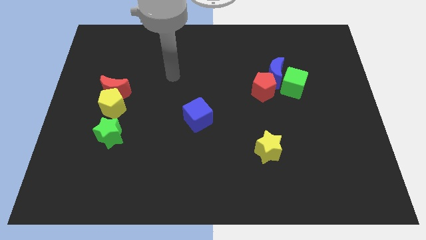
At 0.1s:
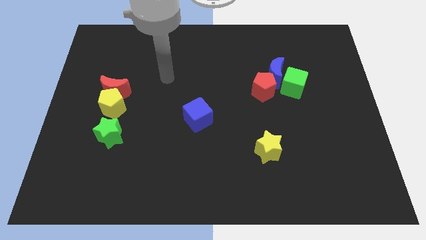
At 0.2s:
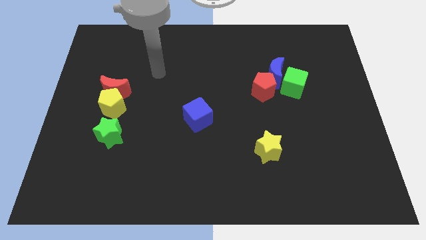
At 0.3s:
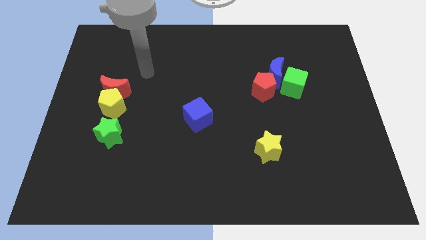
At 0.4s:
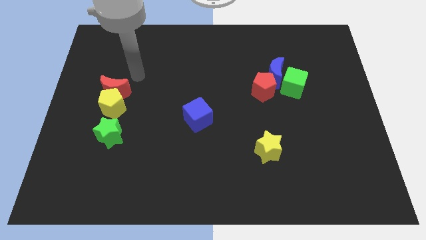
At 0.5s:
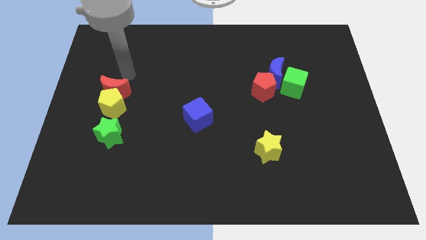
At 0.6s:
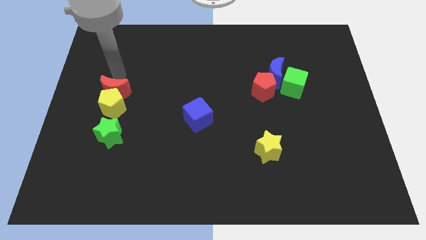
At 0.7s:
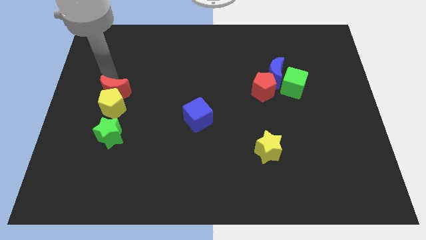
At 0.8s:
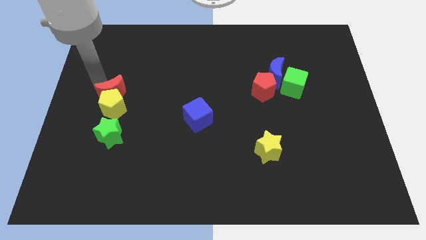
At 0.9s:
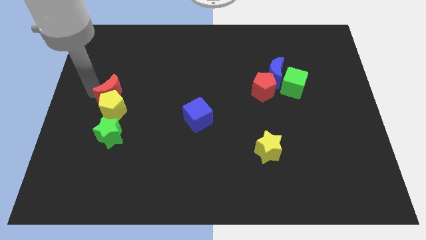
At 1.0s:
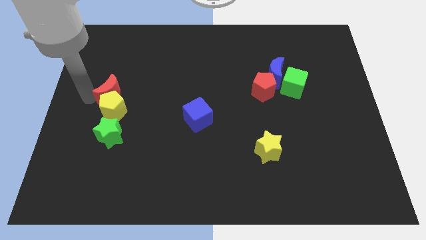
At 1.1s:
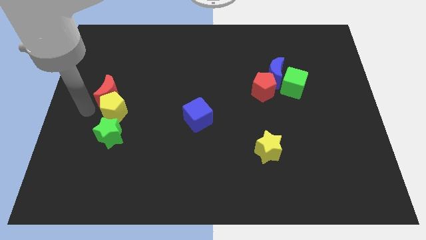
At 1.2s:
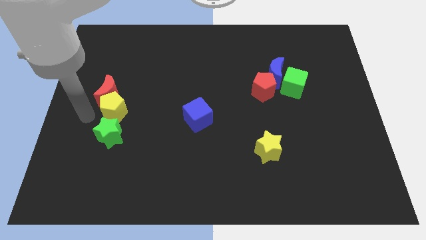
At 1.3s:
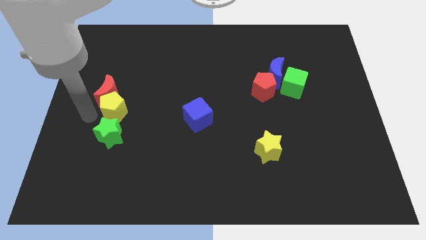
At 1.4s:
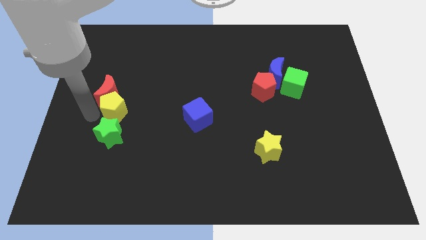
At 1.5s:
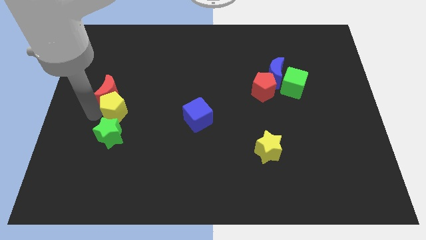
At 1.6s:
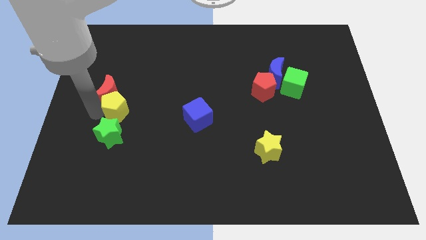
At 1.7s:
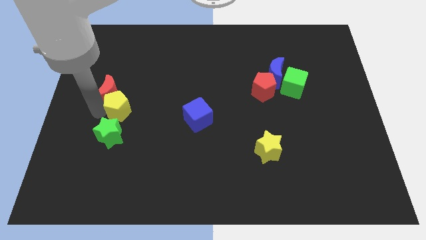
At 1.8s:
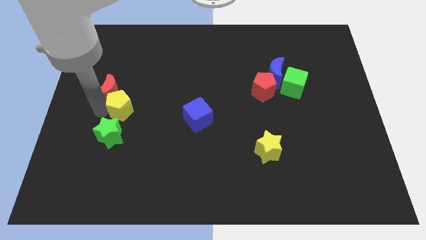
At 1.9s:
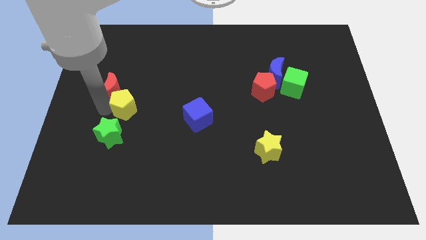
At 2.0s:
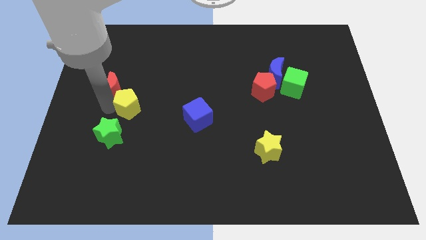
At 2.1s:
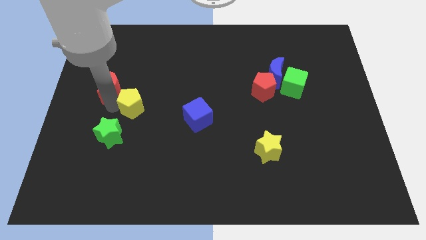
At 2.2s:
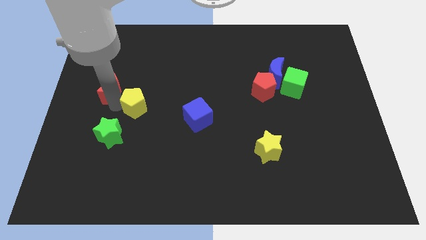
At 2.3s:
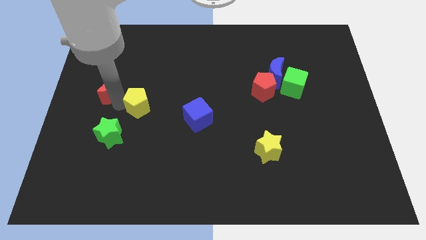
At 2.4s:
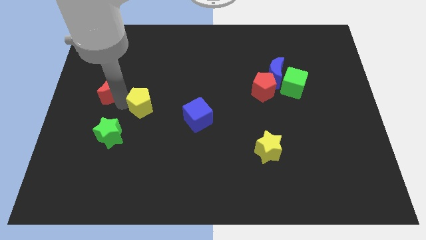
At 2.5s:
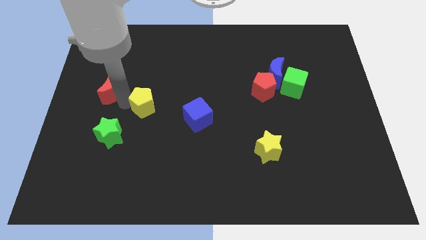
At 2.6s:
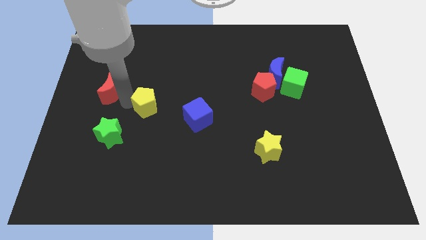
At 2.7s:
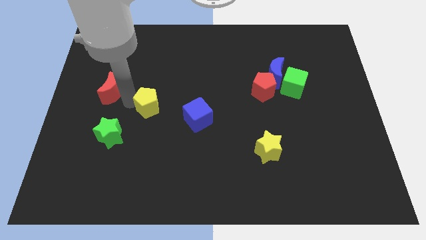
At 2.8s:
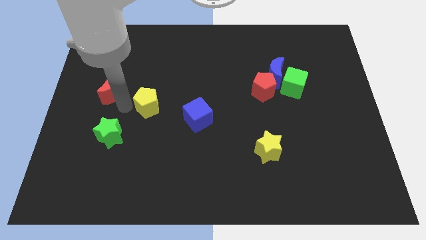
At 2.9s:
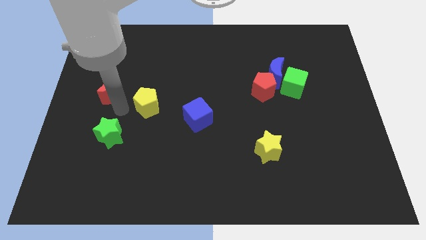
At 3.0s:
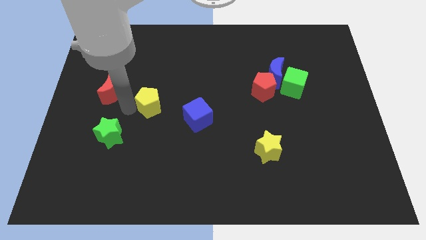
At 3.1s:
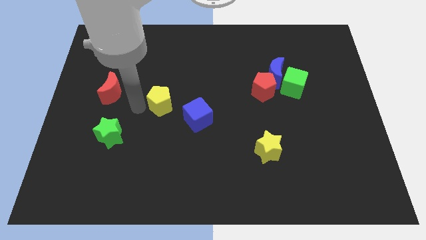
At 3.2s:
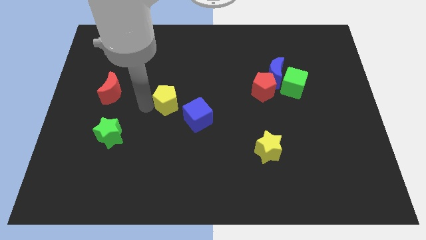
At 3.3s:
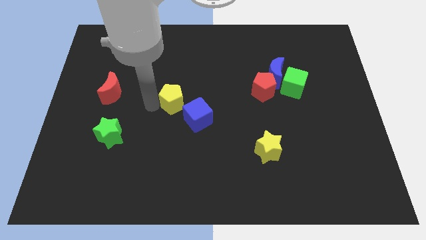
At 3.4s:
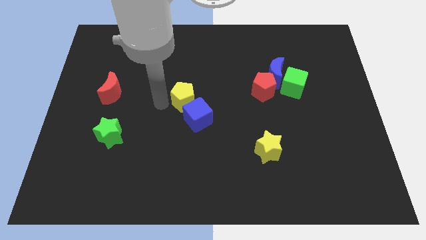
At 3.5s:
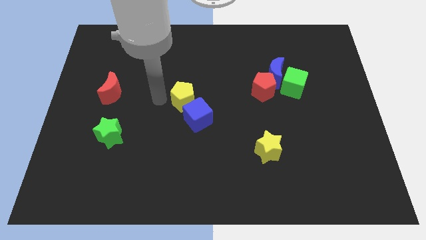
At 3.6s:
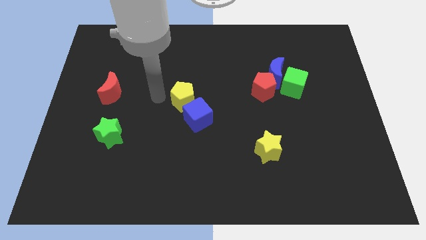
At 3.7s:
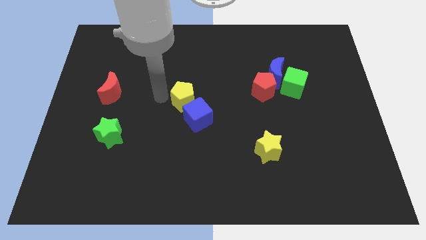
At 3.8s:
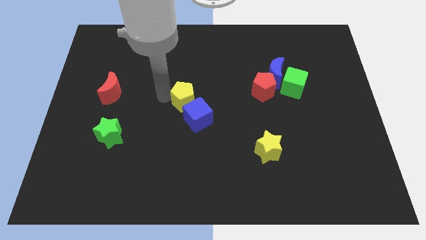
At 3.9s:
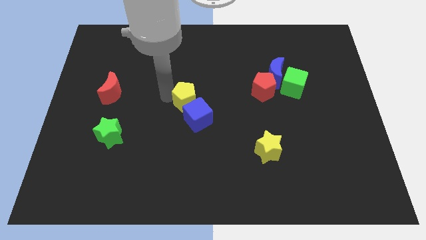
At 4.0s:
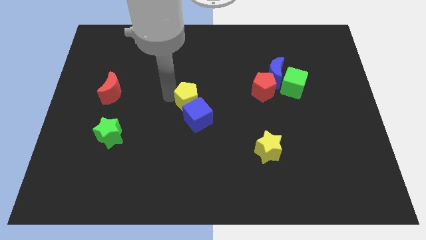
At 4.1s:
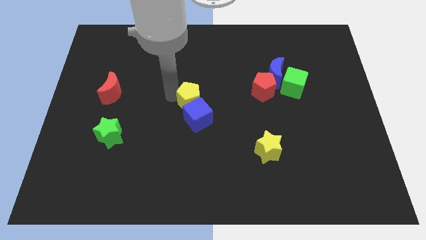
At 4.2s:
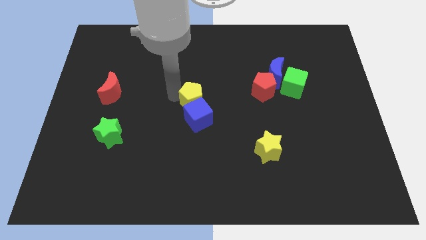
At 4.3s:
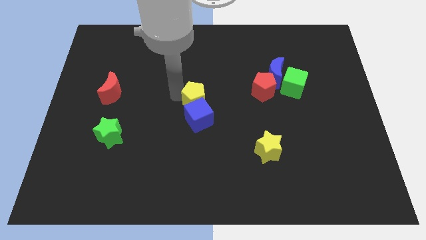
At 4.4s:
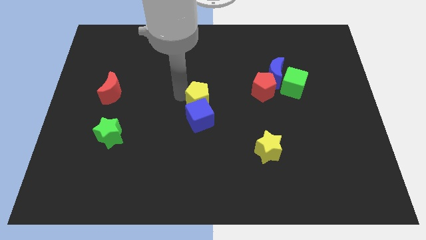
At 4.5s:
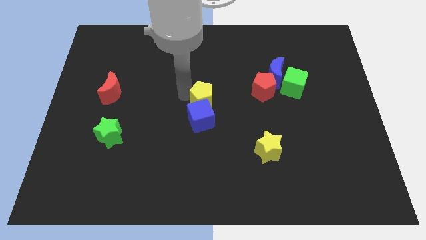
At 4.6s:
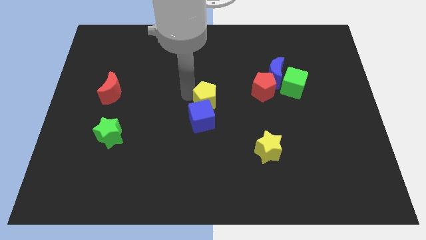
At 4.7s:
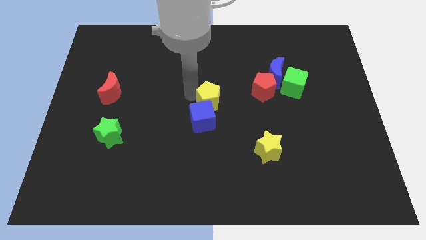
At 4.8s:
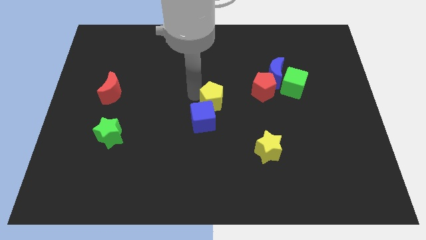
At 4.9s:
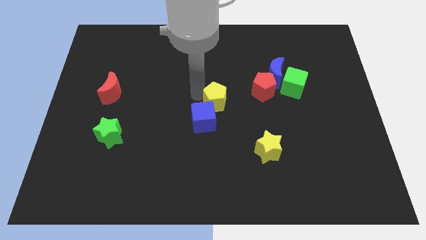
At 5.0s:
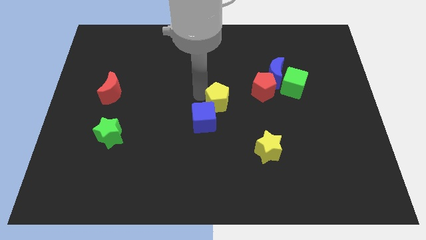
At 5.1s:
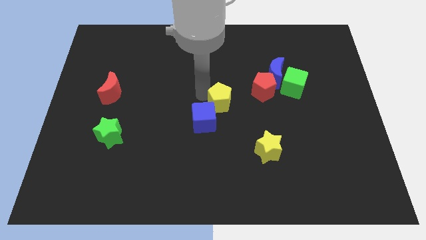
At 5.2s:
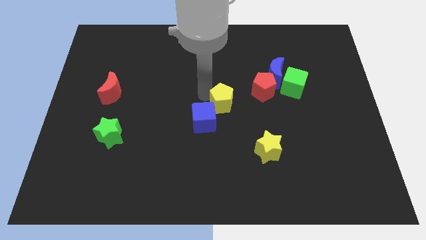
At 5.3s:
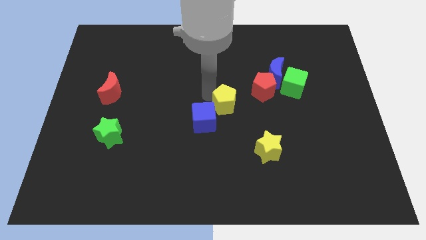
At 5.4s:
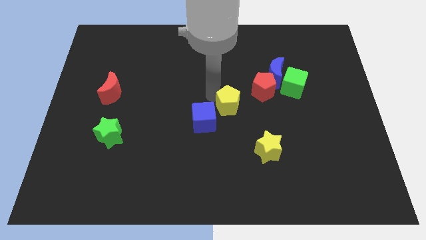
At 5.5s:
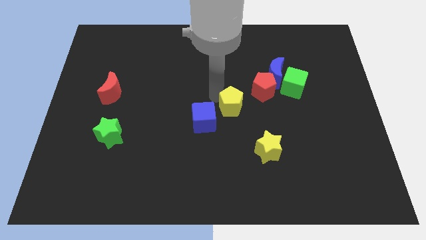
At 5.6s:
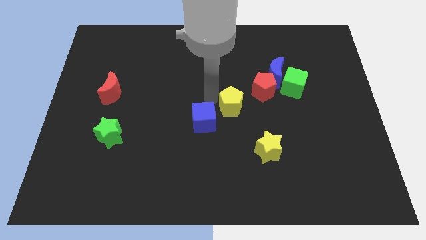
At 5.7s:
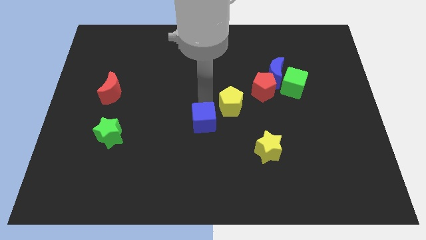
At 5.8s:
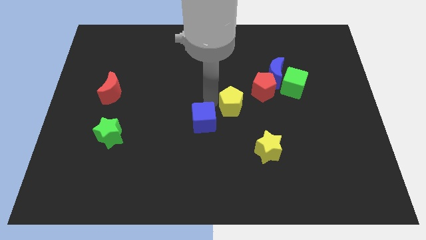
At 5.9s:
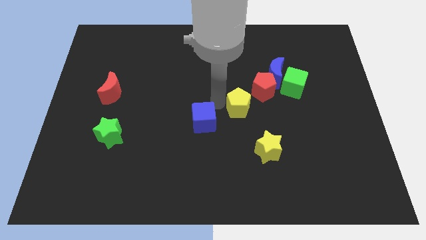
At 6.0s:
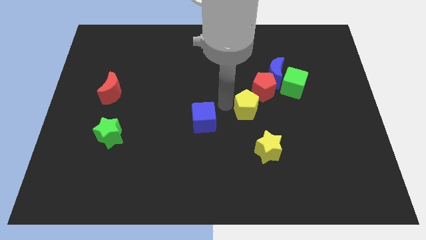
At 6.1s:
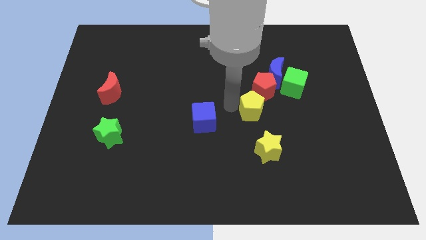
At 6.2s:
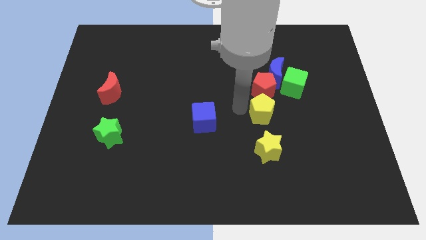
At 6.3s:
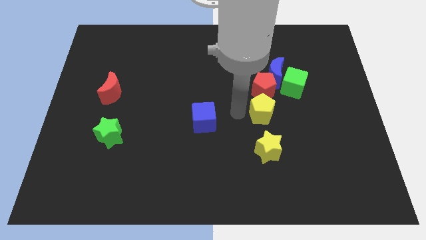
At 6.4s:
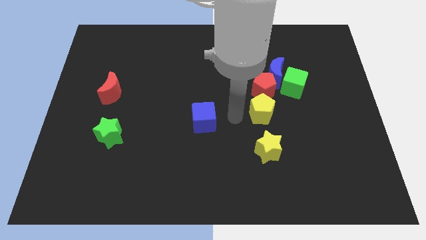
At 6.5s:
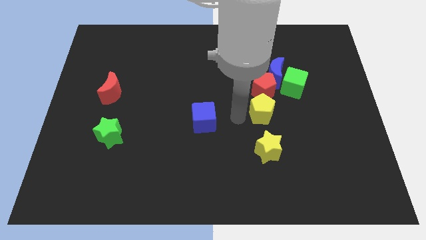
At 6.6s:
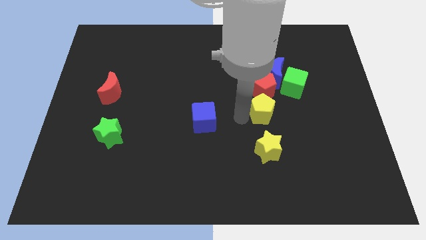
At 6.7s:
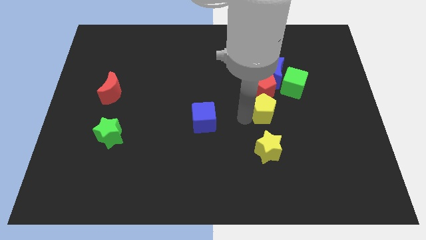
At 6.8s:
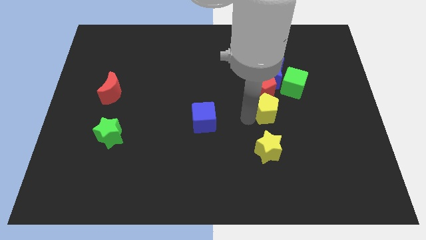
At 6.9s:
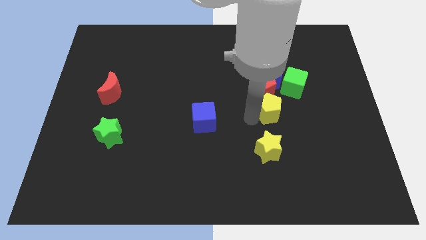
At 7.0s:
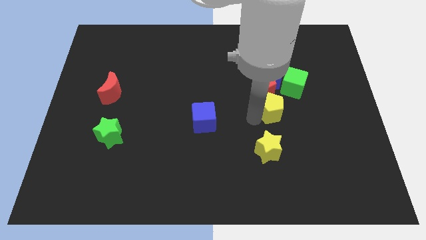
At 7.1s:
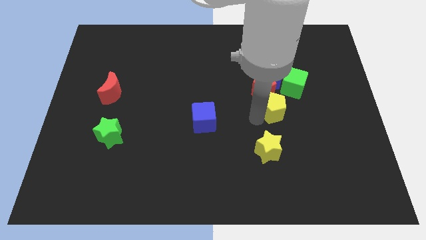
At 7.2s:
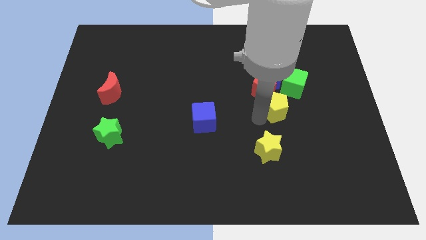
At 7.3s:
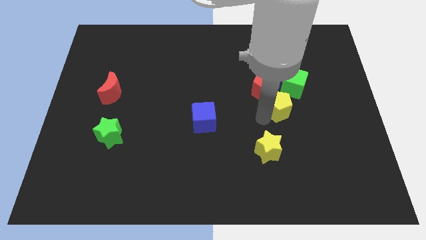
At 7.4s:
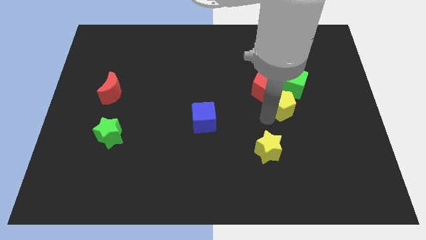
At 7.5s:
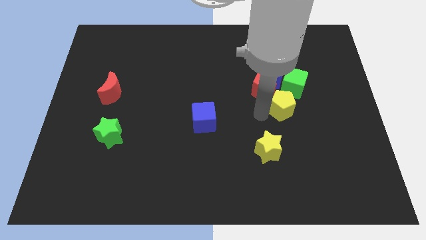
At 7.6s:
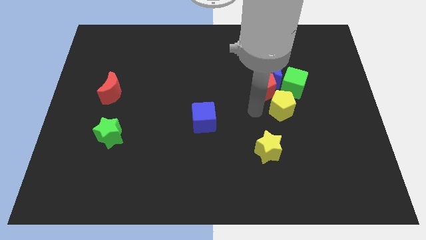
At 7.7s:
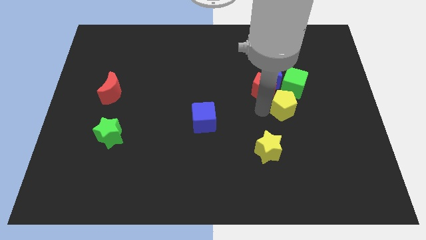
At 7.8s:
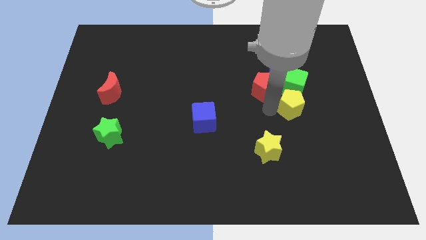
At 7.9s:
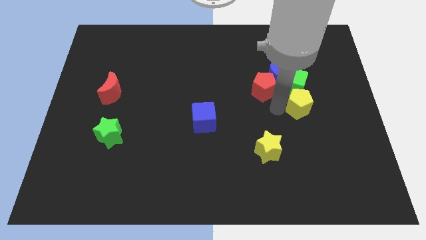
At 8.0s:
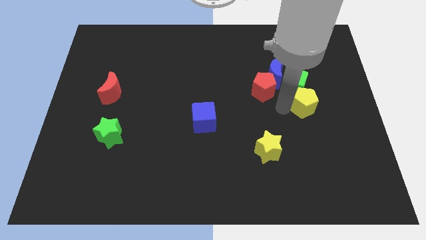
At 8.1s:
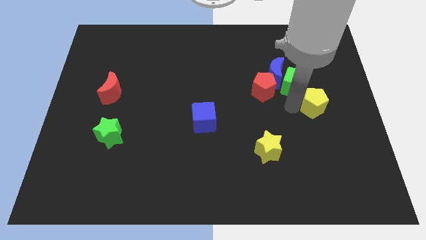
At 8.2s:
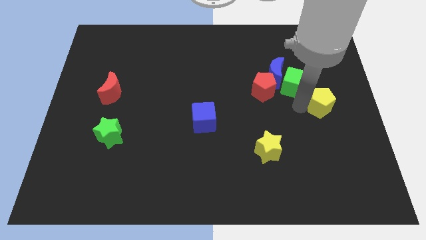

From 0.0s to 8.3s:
push the yellow pentagon to the center right
